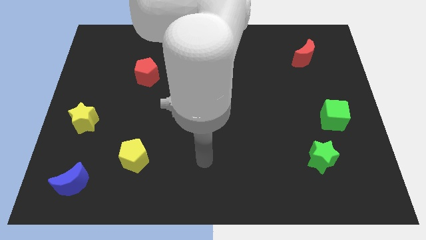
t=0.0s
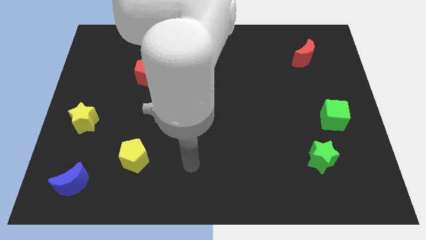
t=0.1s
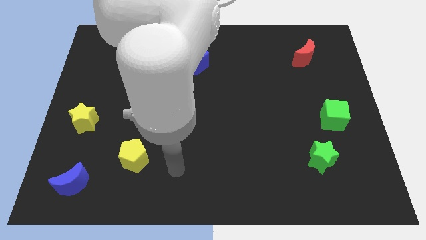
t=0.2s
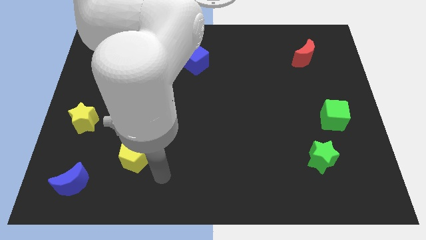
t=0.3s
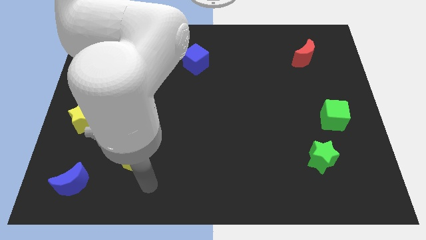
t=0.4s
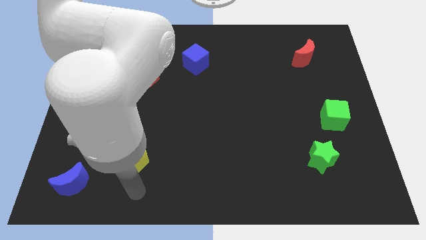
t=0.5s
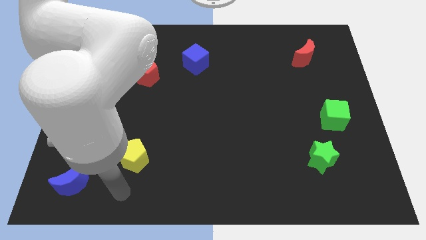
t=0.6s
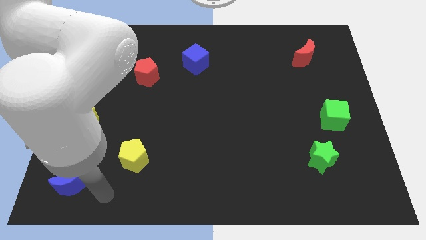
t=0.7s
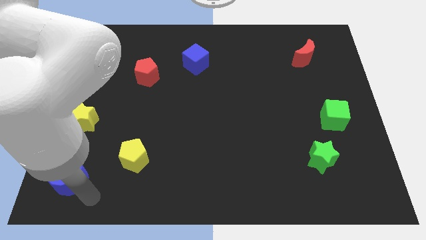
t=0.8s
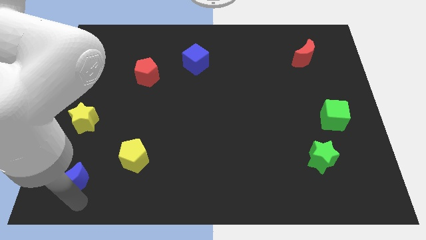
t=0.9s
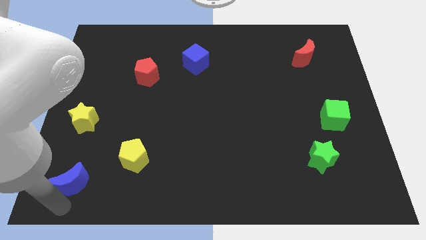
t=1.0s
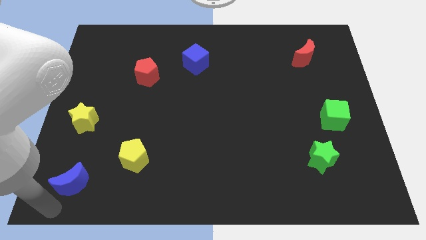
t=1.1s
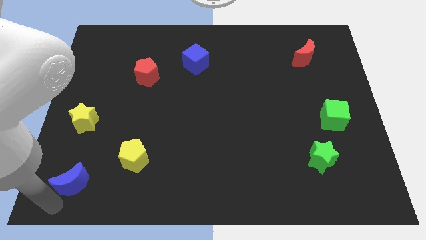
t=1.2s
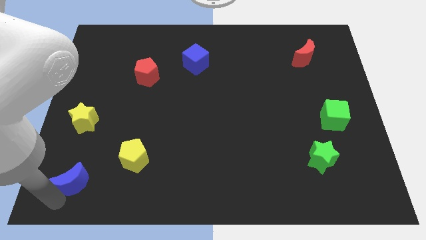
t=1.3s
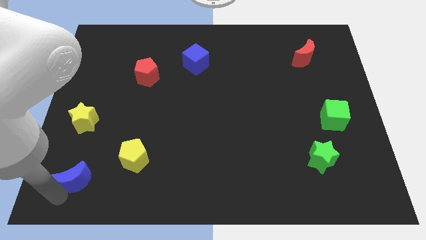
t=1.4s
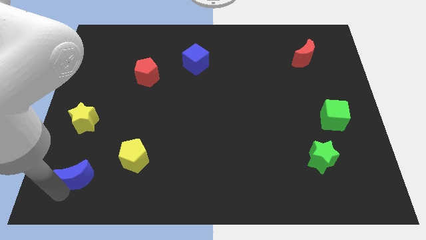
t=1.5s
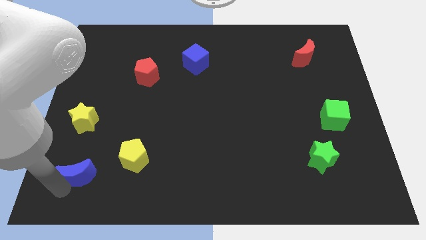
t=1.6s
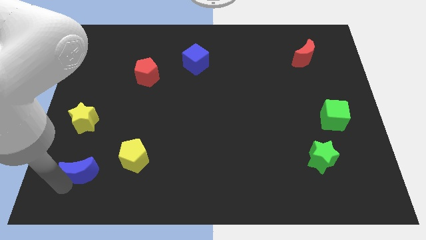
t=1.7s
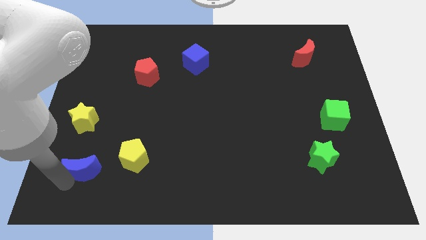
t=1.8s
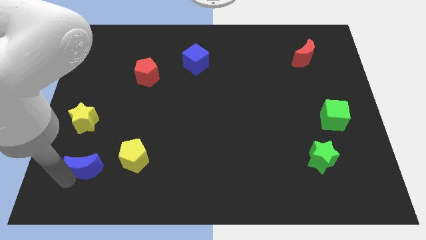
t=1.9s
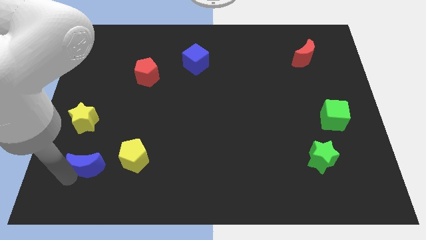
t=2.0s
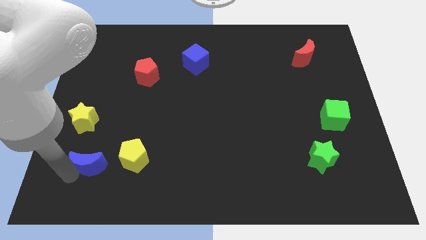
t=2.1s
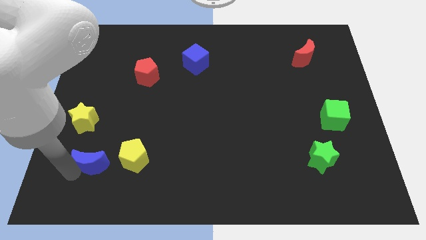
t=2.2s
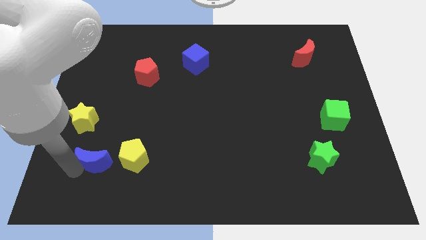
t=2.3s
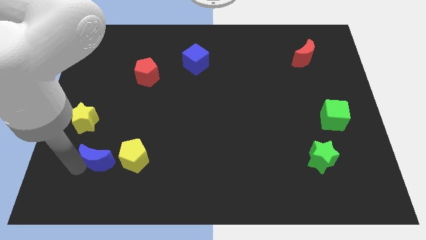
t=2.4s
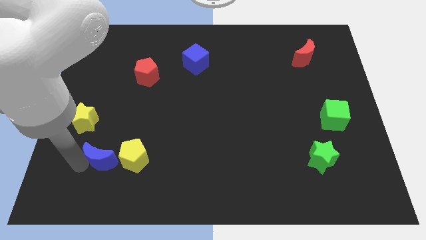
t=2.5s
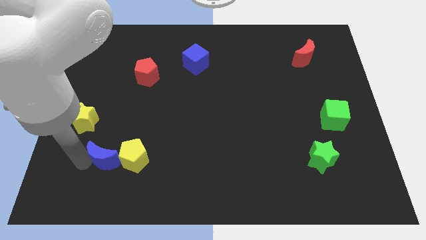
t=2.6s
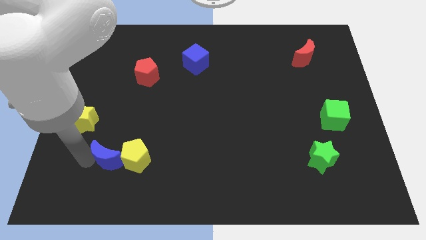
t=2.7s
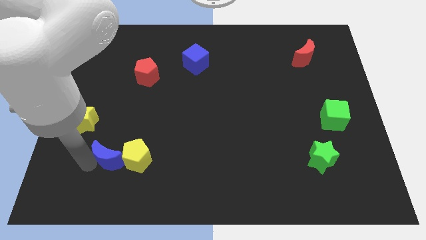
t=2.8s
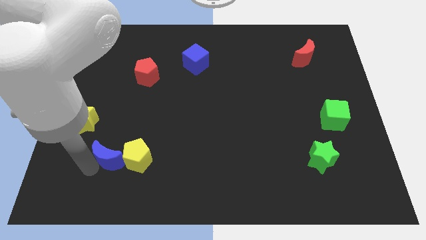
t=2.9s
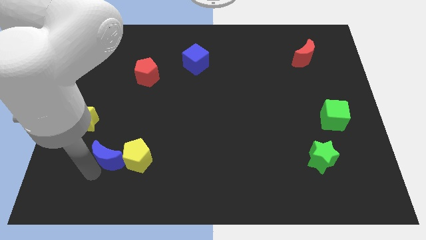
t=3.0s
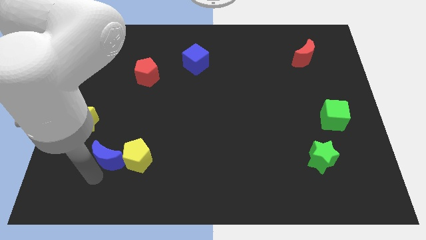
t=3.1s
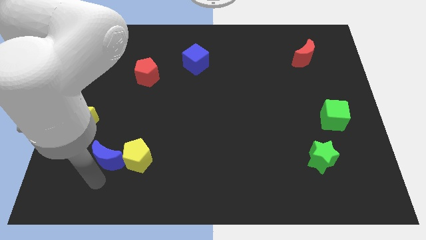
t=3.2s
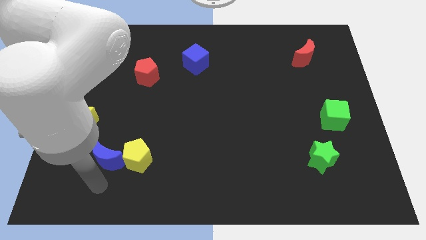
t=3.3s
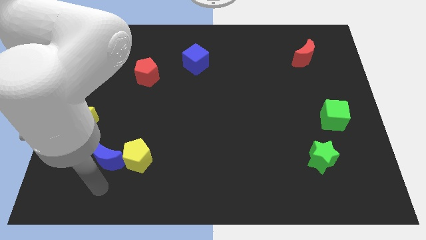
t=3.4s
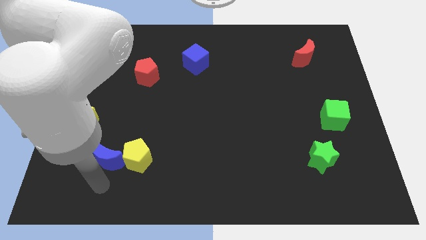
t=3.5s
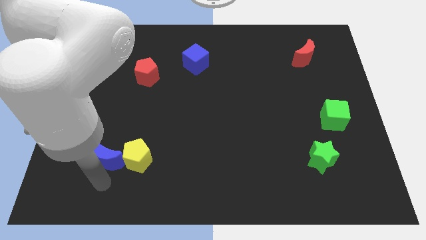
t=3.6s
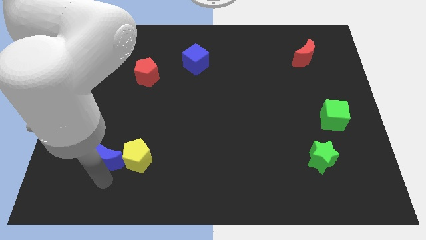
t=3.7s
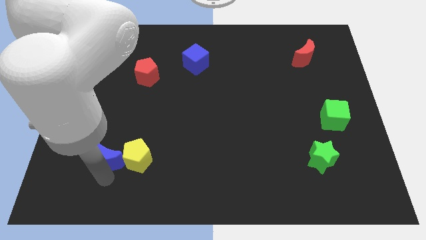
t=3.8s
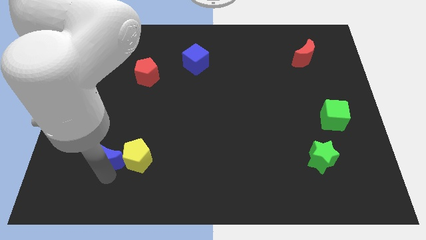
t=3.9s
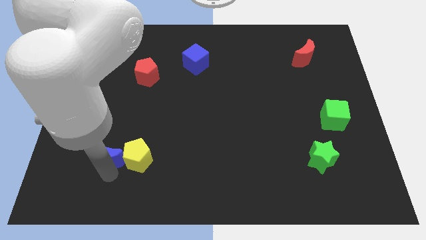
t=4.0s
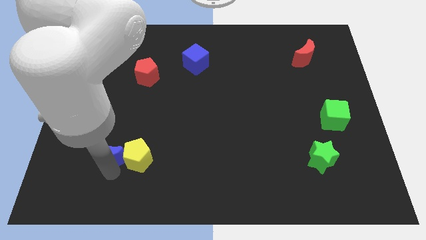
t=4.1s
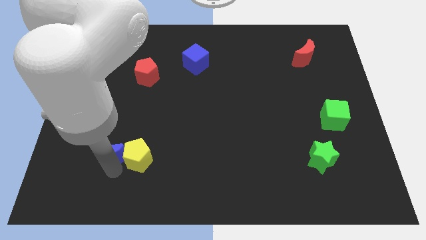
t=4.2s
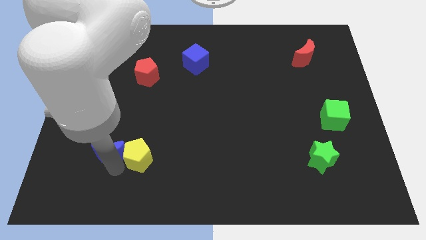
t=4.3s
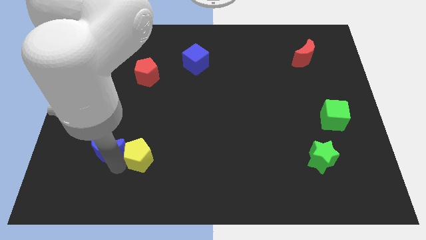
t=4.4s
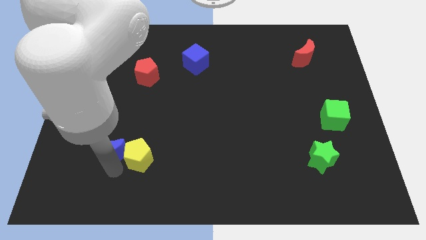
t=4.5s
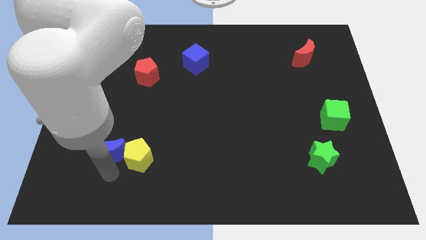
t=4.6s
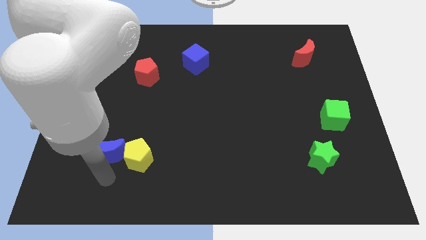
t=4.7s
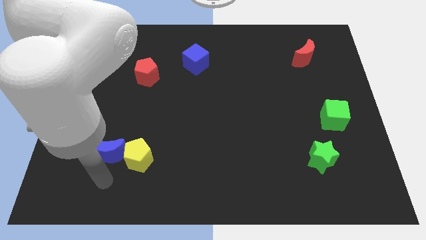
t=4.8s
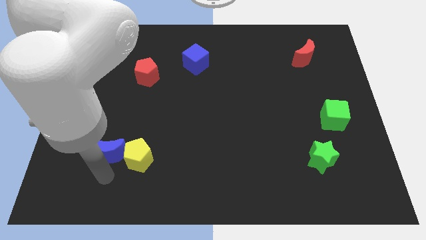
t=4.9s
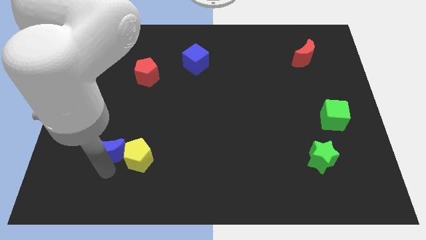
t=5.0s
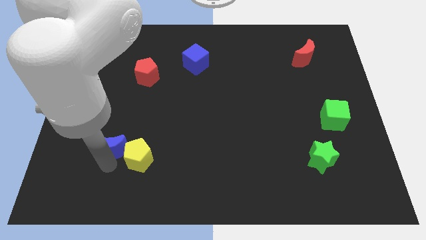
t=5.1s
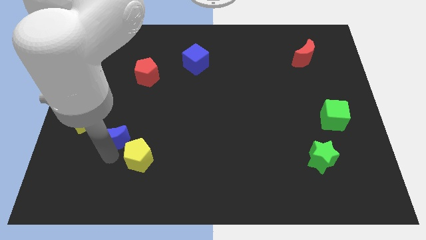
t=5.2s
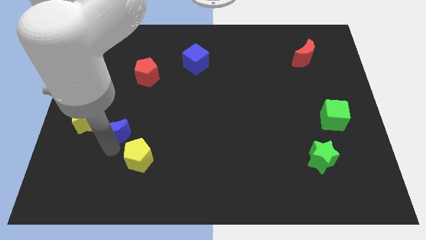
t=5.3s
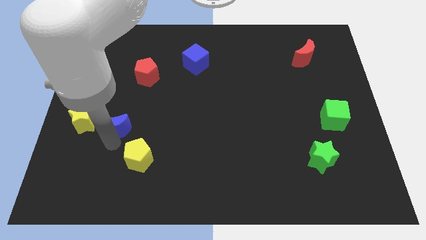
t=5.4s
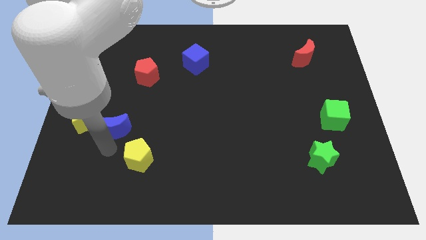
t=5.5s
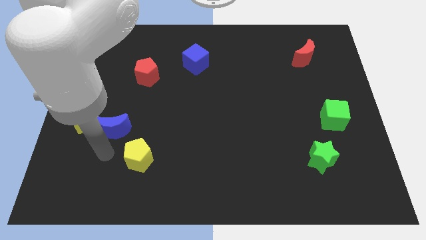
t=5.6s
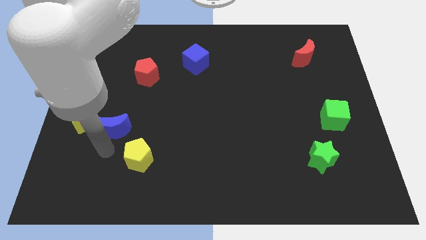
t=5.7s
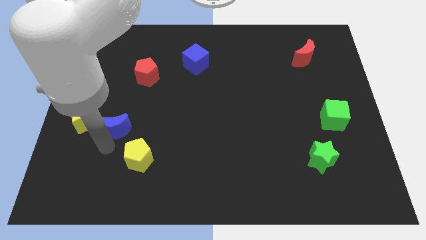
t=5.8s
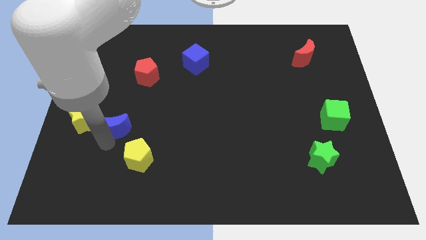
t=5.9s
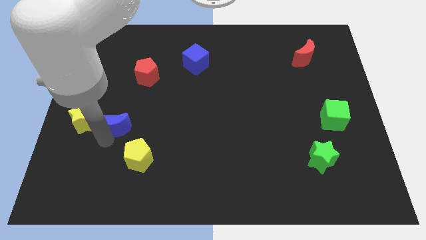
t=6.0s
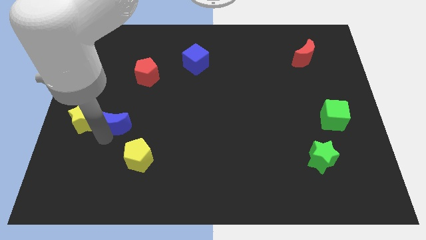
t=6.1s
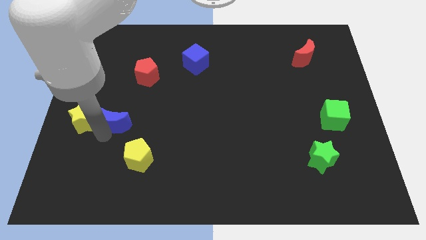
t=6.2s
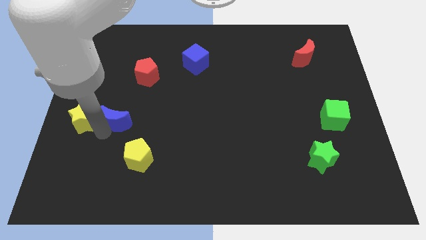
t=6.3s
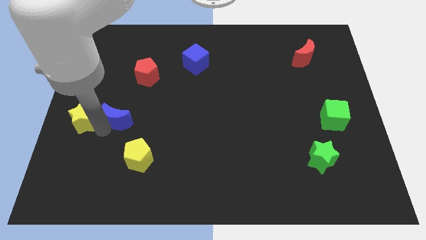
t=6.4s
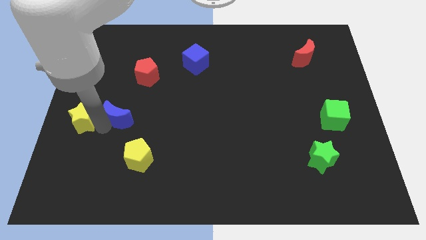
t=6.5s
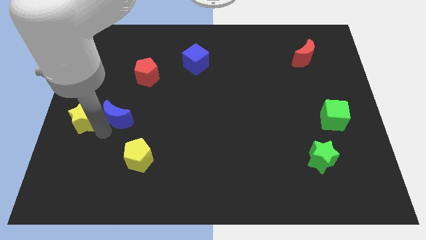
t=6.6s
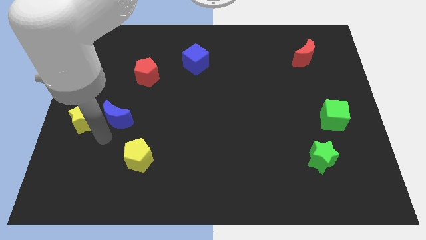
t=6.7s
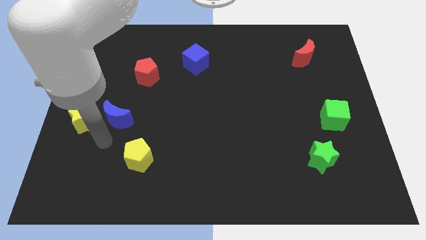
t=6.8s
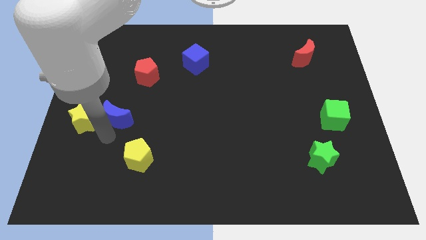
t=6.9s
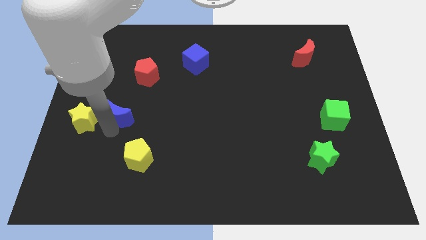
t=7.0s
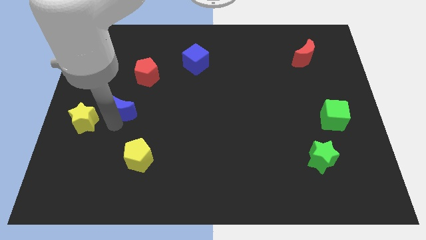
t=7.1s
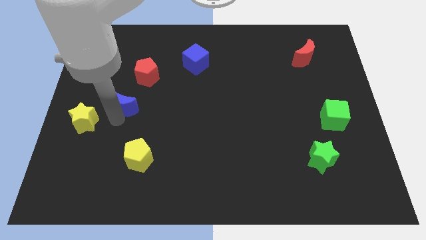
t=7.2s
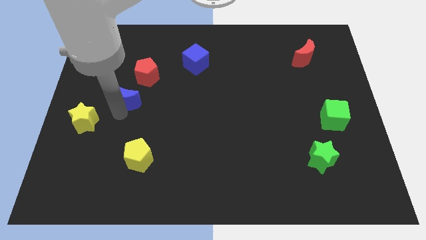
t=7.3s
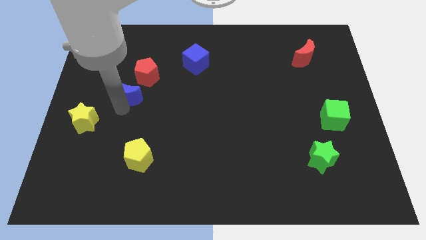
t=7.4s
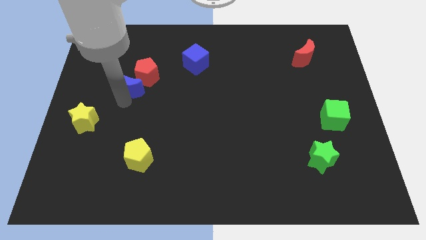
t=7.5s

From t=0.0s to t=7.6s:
slide the blue moon towards the red pentagon
